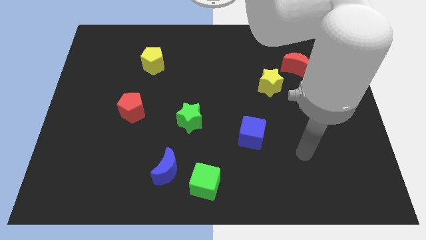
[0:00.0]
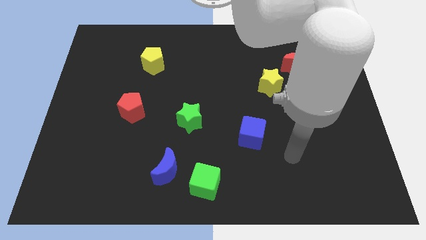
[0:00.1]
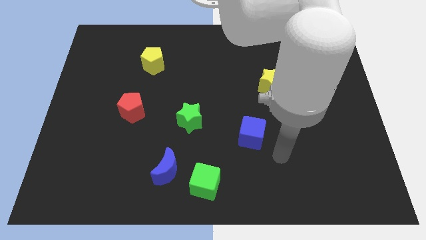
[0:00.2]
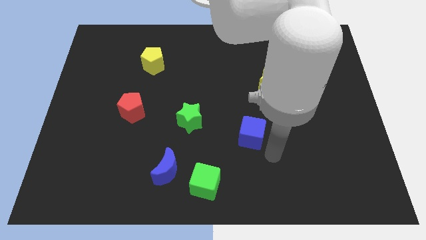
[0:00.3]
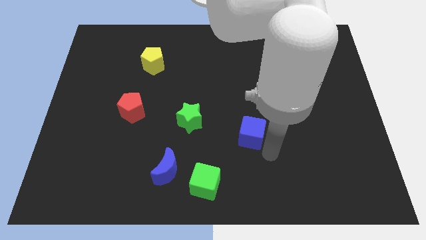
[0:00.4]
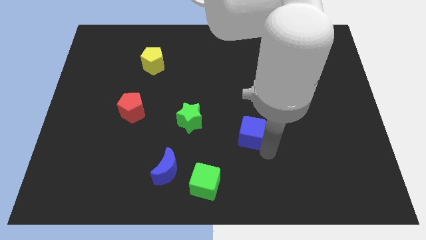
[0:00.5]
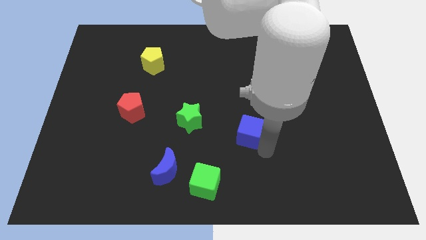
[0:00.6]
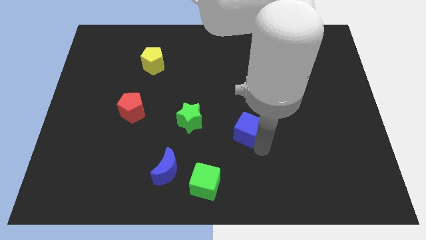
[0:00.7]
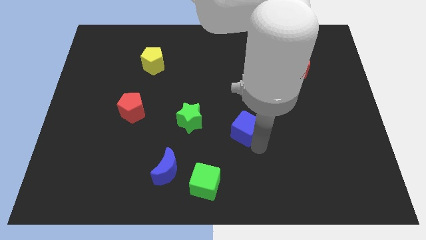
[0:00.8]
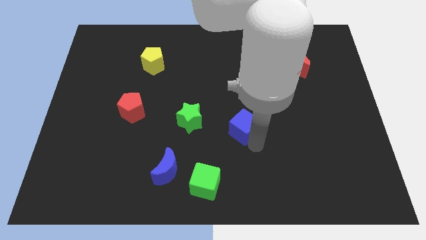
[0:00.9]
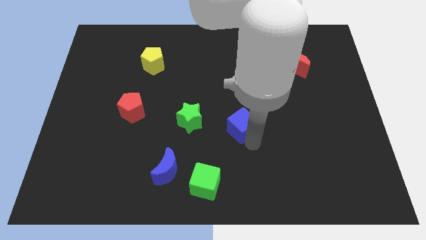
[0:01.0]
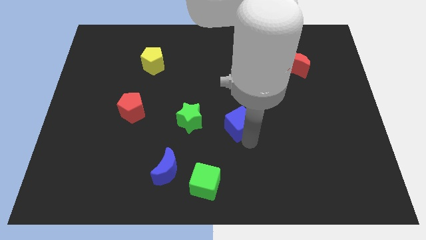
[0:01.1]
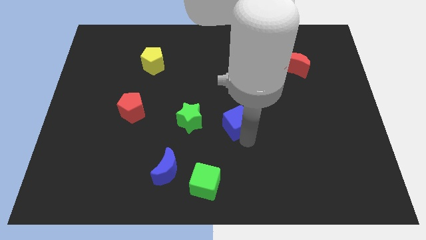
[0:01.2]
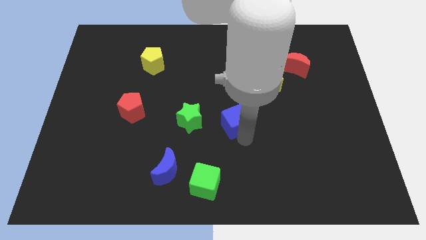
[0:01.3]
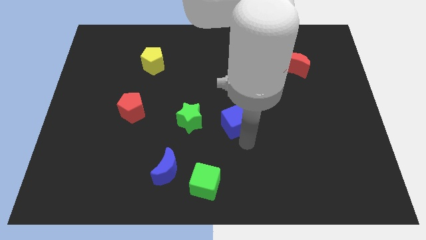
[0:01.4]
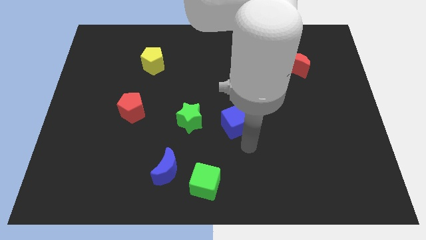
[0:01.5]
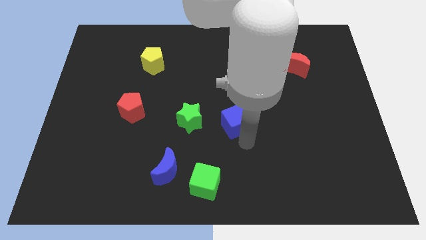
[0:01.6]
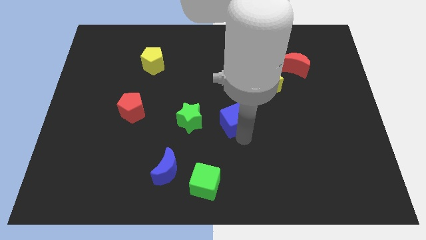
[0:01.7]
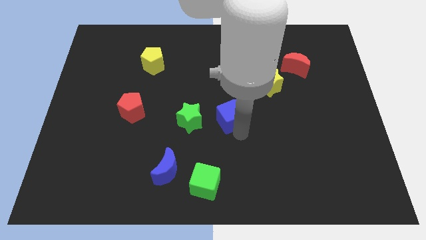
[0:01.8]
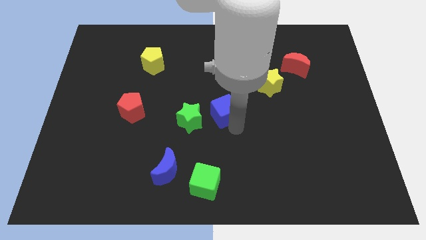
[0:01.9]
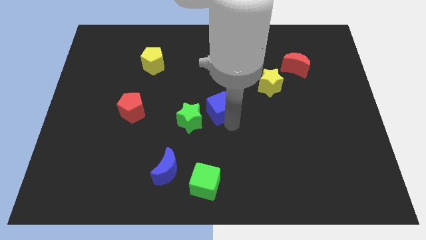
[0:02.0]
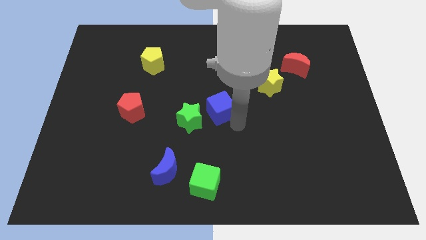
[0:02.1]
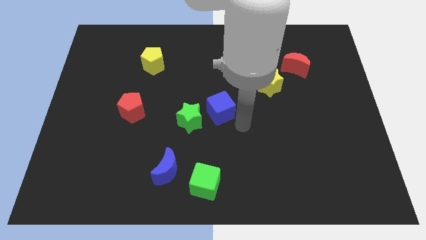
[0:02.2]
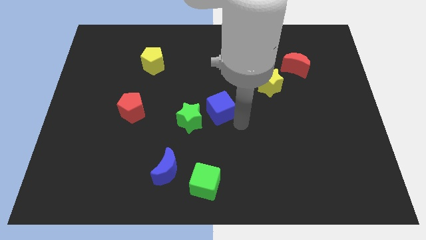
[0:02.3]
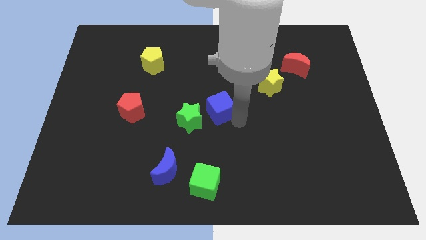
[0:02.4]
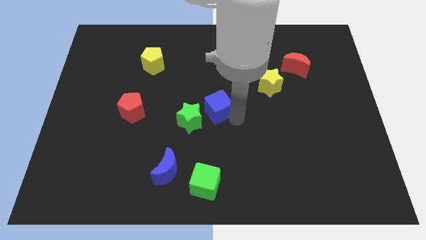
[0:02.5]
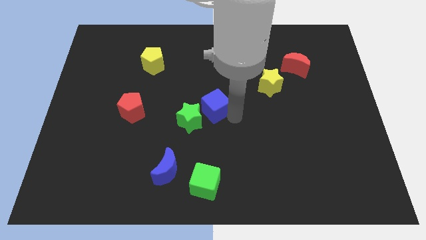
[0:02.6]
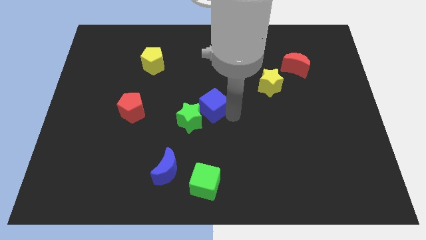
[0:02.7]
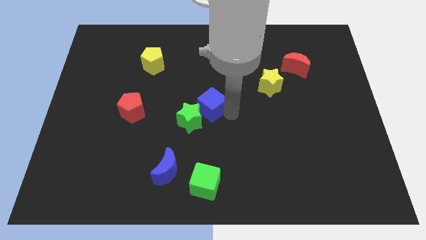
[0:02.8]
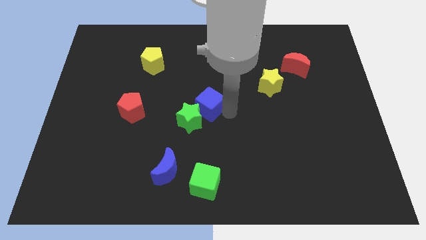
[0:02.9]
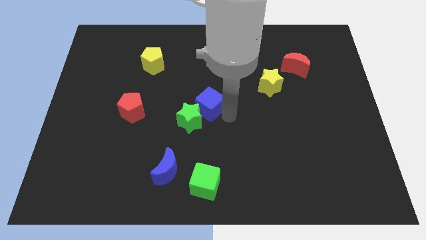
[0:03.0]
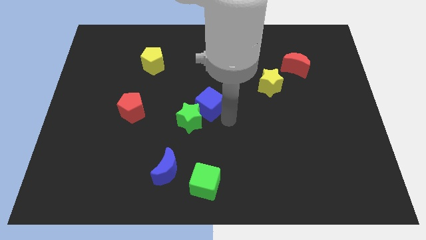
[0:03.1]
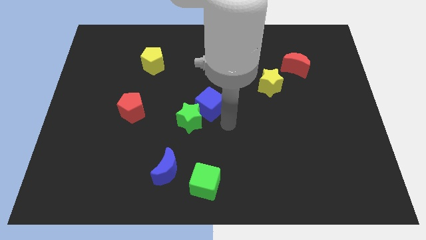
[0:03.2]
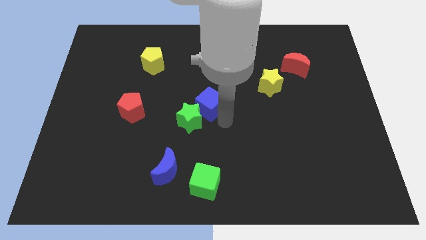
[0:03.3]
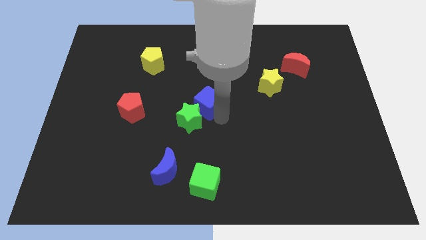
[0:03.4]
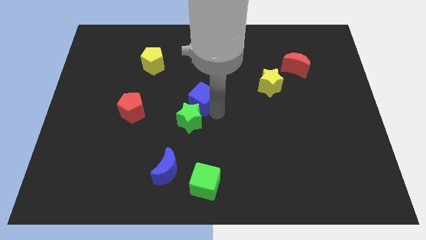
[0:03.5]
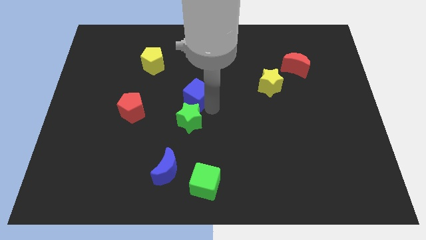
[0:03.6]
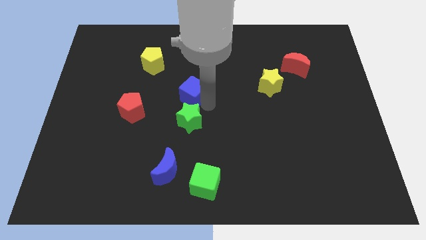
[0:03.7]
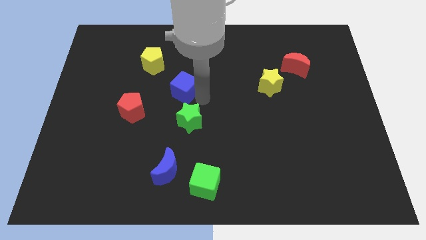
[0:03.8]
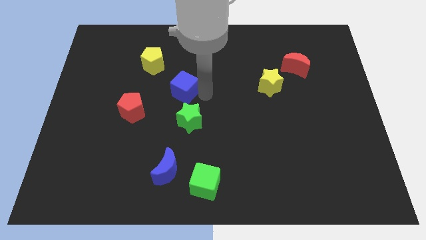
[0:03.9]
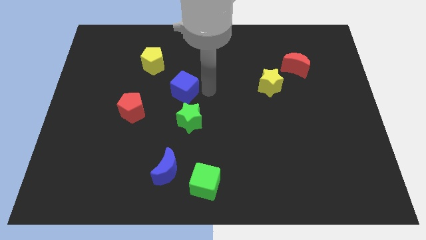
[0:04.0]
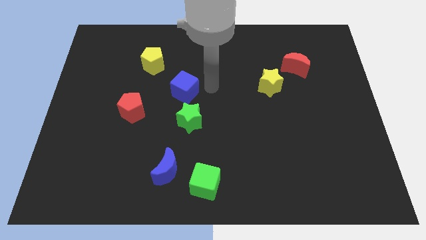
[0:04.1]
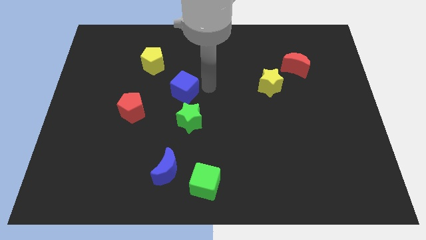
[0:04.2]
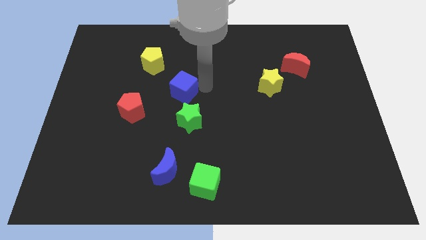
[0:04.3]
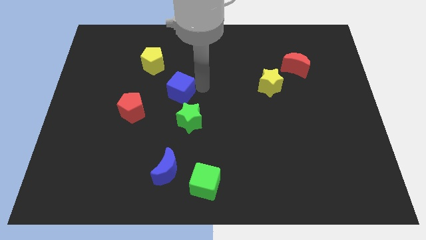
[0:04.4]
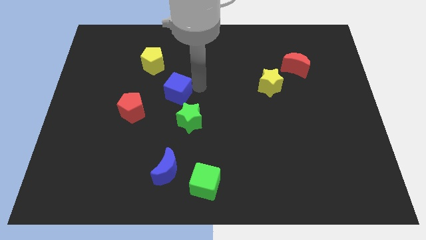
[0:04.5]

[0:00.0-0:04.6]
move the blue cube diagonally up and to the right of the red pentagon
